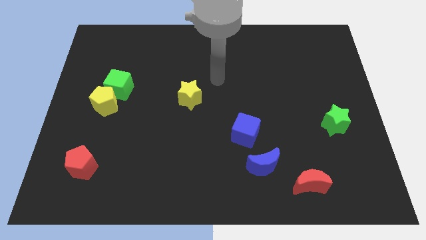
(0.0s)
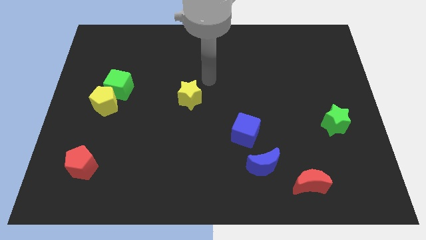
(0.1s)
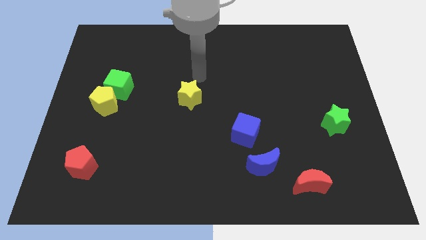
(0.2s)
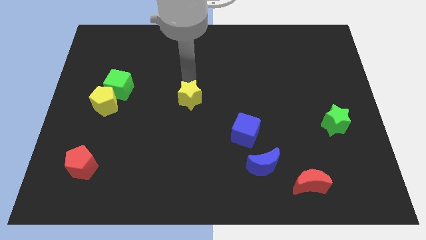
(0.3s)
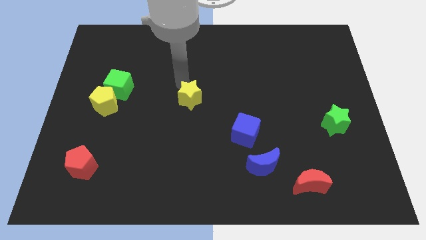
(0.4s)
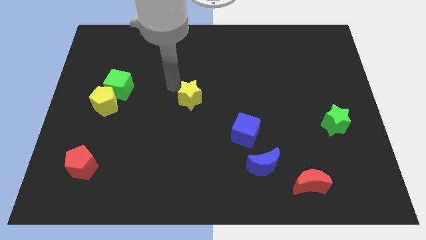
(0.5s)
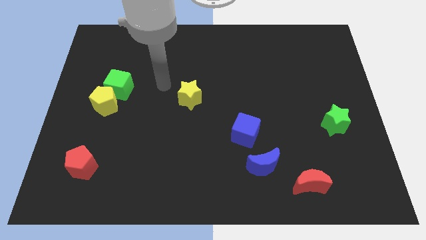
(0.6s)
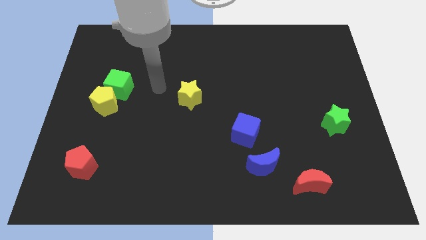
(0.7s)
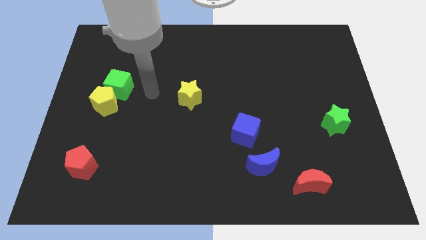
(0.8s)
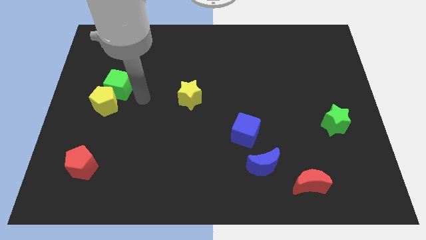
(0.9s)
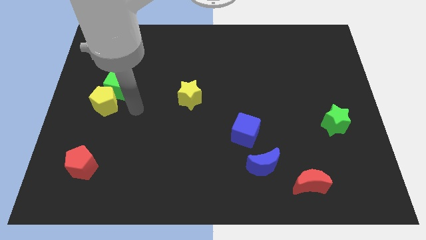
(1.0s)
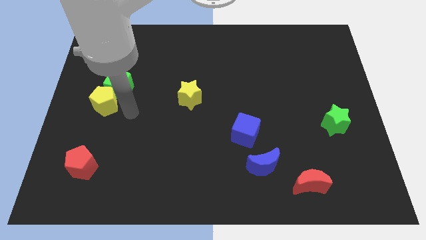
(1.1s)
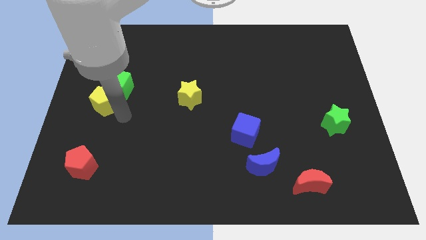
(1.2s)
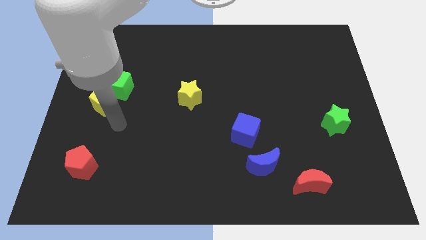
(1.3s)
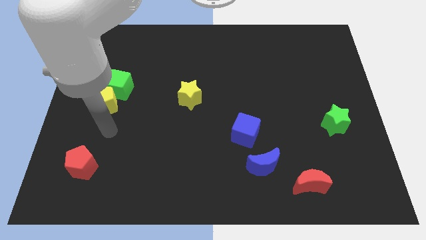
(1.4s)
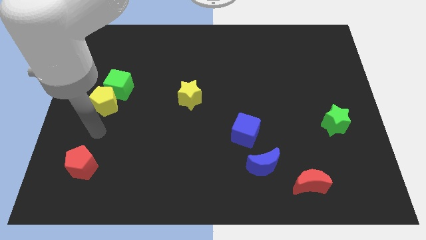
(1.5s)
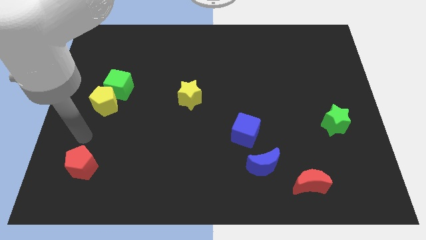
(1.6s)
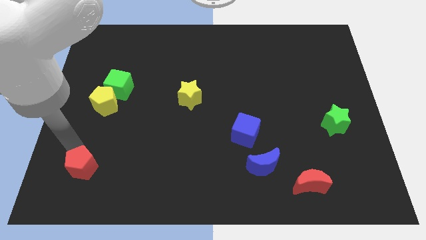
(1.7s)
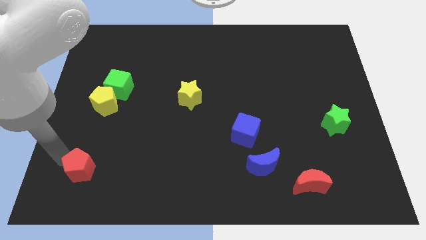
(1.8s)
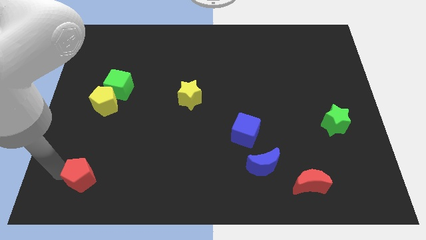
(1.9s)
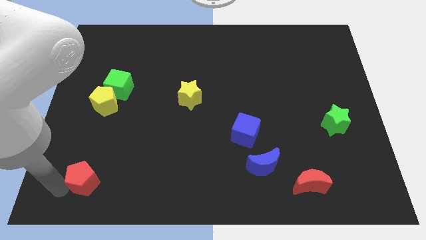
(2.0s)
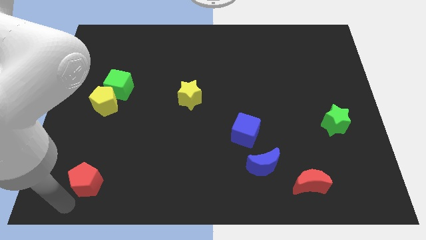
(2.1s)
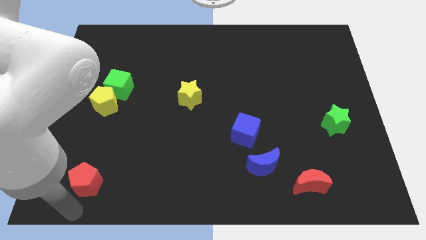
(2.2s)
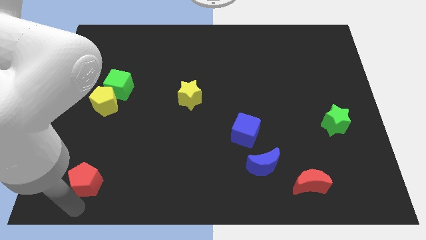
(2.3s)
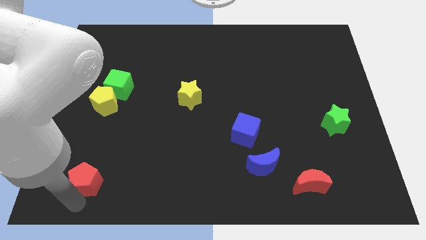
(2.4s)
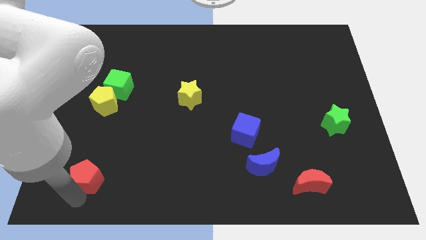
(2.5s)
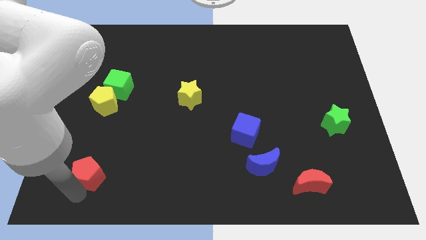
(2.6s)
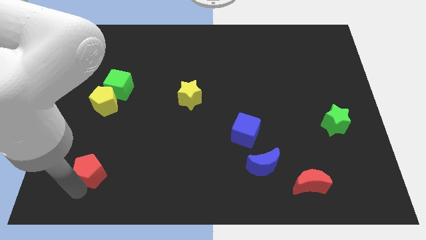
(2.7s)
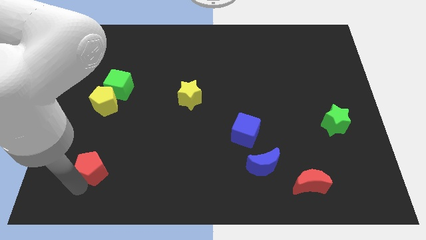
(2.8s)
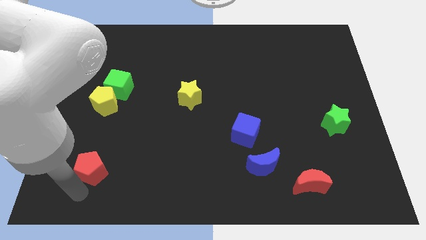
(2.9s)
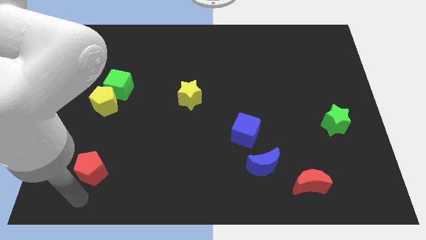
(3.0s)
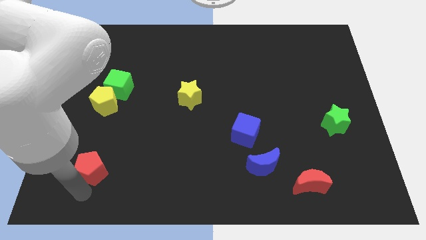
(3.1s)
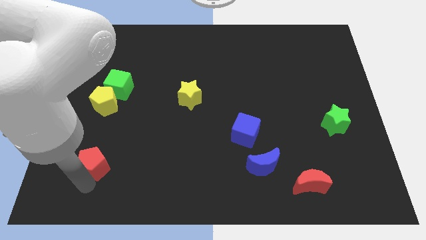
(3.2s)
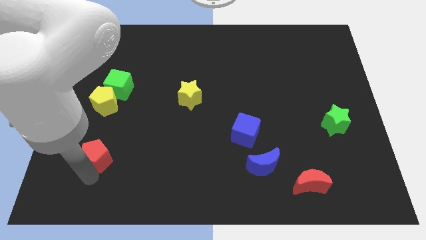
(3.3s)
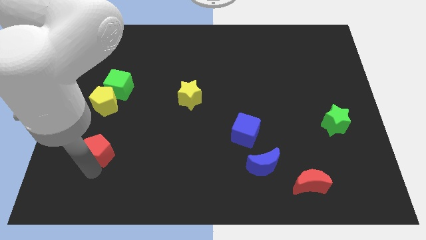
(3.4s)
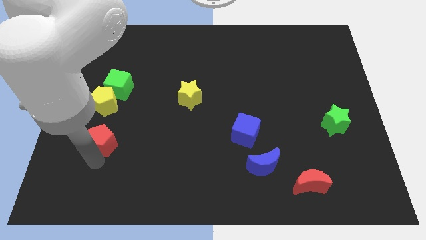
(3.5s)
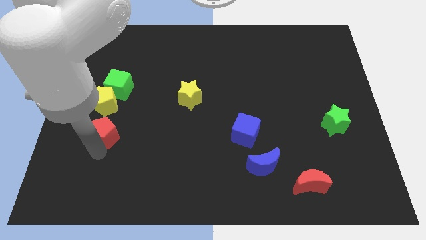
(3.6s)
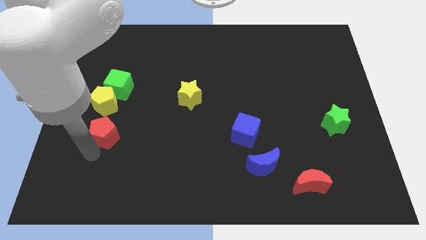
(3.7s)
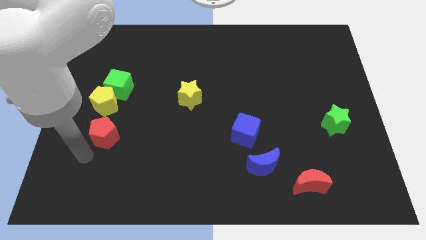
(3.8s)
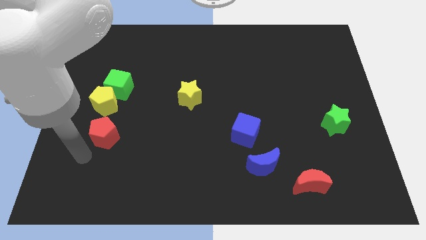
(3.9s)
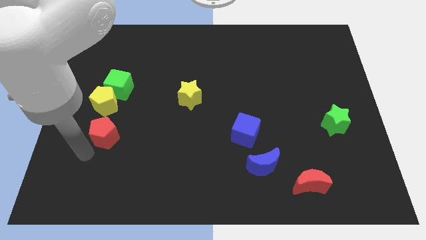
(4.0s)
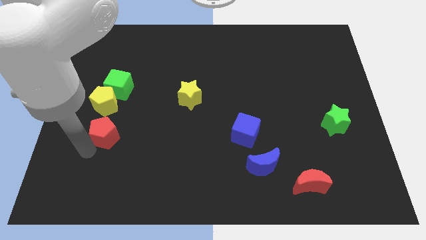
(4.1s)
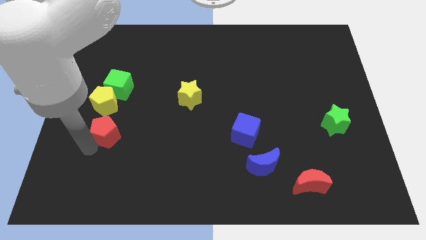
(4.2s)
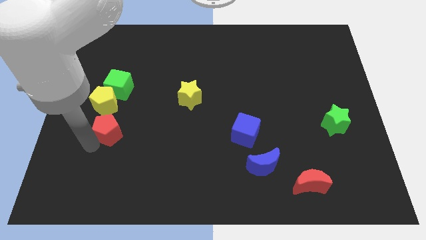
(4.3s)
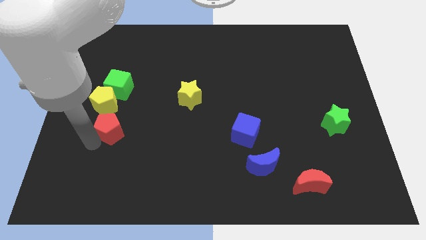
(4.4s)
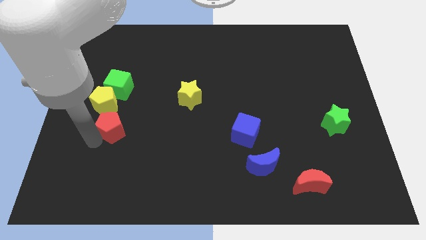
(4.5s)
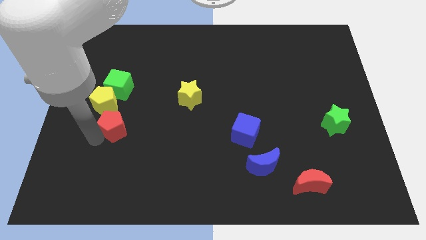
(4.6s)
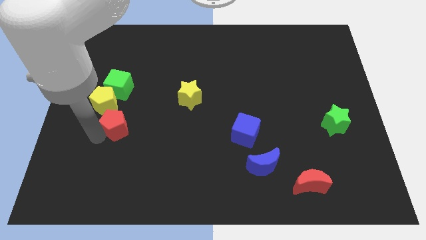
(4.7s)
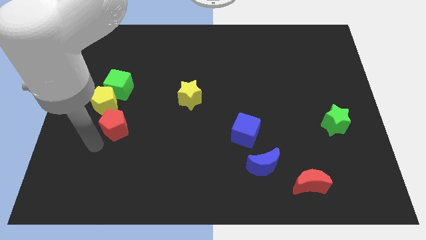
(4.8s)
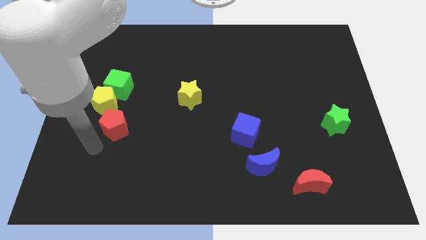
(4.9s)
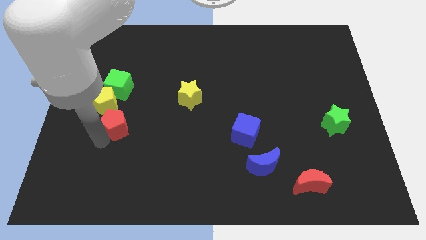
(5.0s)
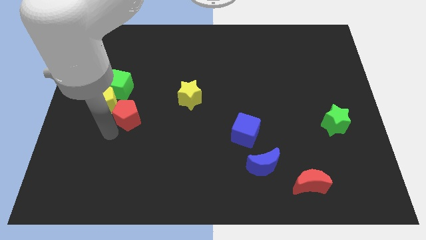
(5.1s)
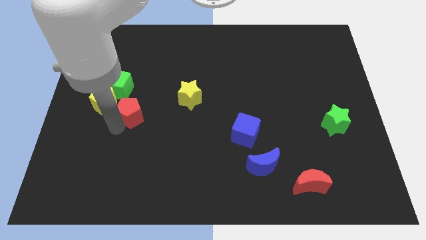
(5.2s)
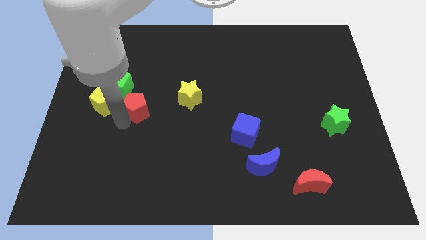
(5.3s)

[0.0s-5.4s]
push the red pentagon just left of the yellow star

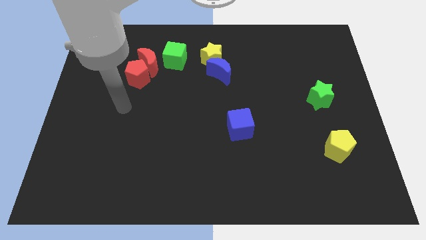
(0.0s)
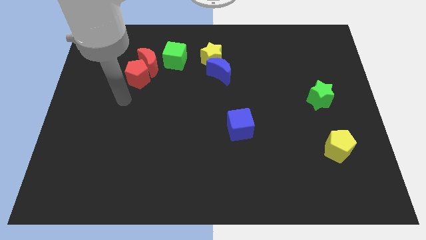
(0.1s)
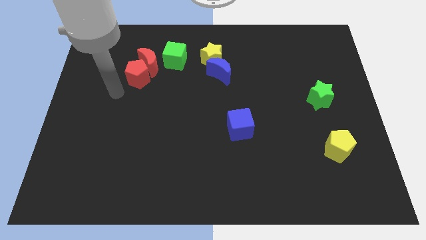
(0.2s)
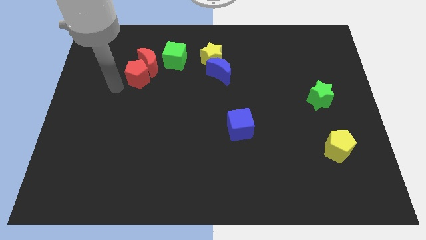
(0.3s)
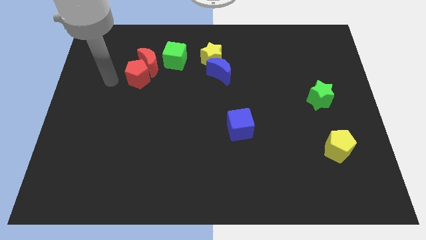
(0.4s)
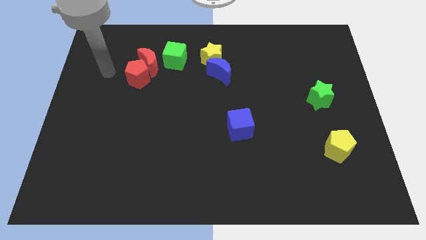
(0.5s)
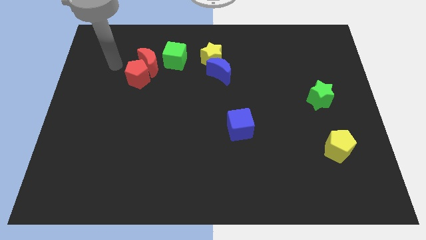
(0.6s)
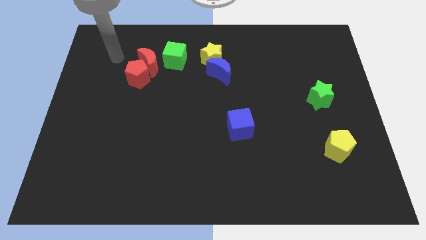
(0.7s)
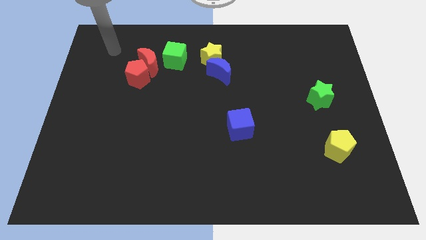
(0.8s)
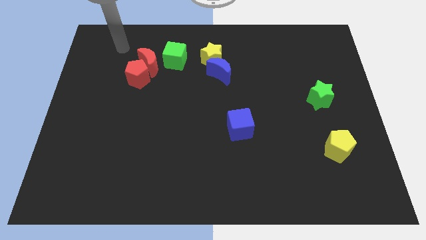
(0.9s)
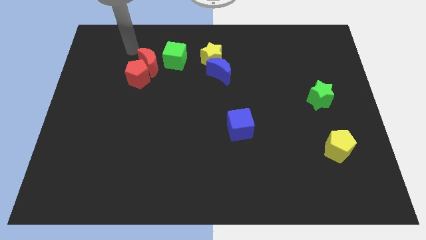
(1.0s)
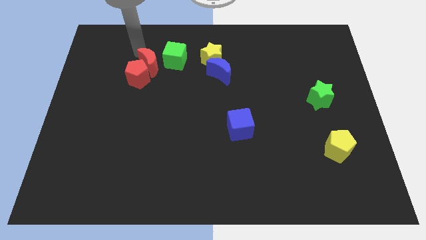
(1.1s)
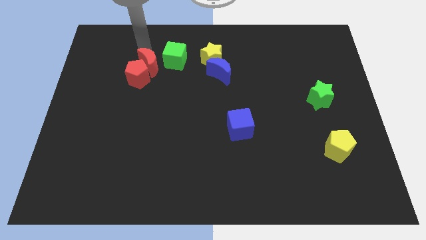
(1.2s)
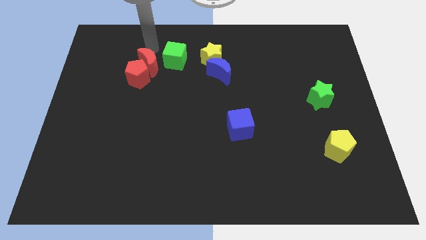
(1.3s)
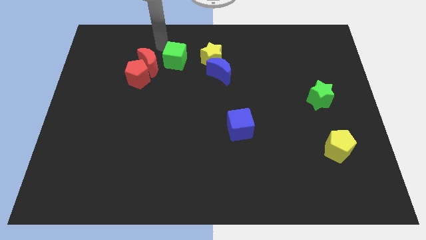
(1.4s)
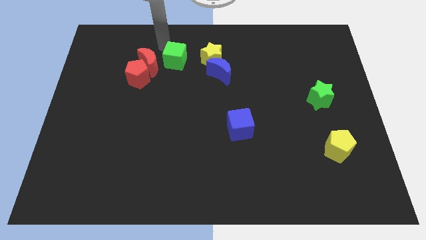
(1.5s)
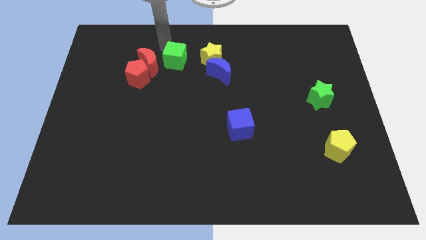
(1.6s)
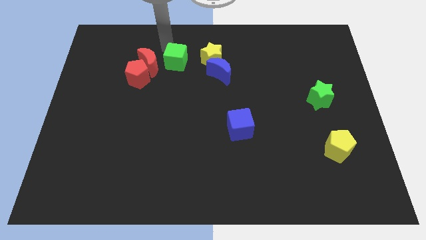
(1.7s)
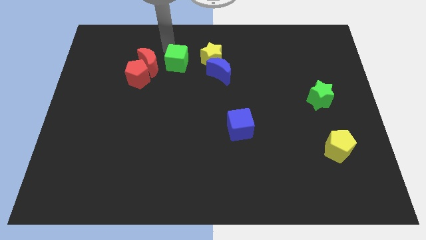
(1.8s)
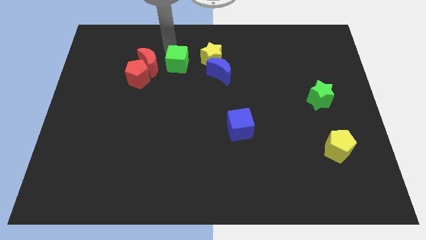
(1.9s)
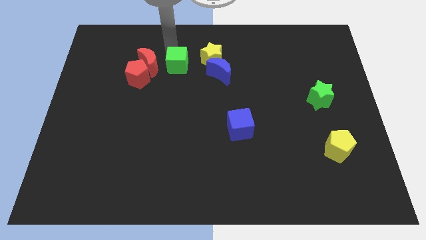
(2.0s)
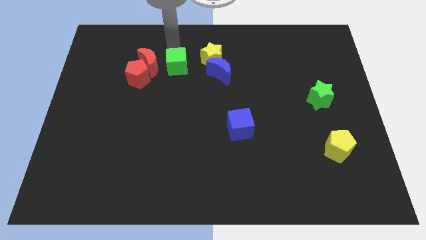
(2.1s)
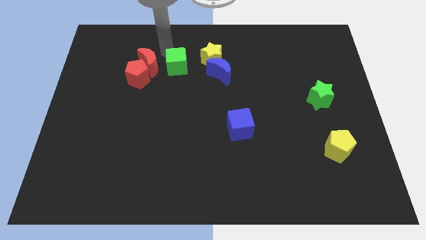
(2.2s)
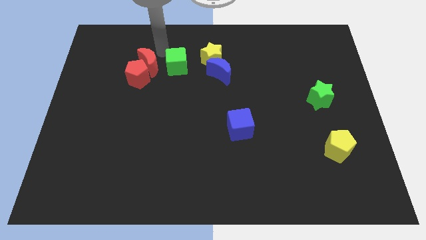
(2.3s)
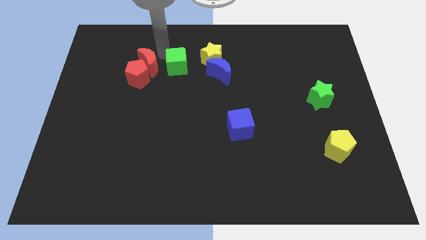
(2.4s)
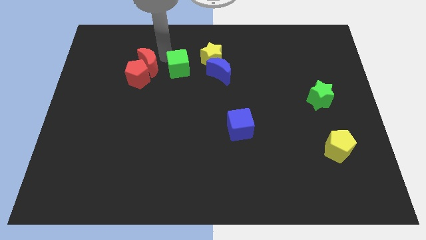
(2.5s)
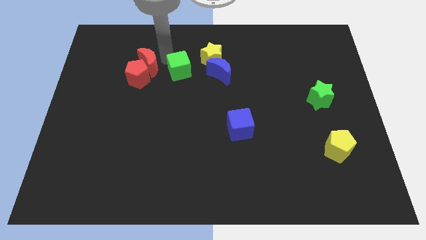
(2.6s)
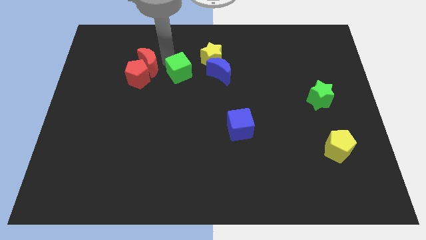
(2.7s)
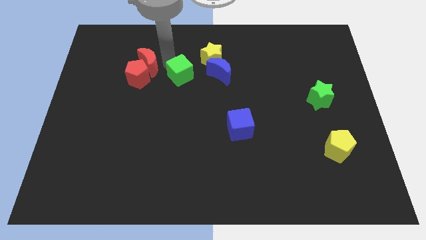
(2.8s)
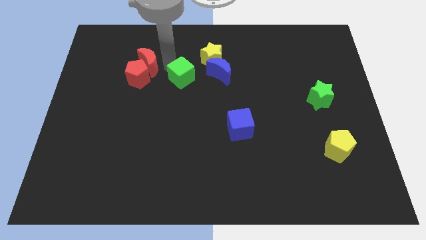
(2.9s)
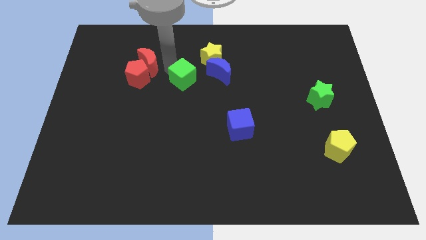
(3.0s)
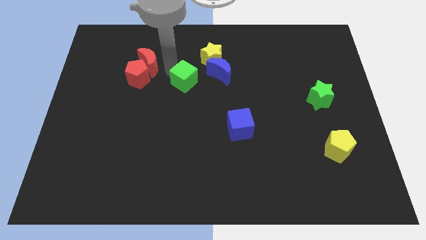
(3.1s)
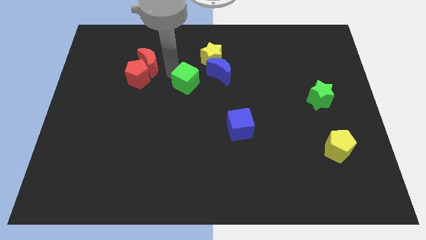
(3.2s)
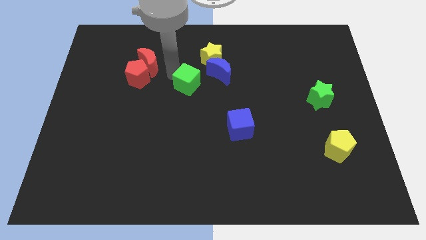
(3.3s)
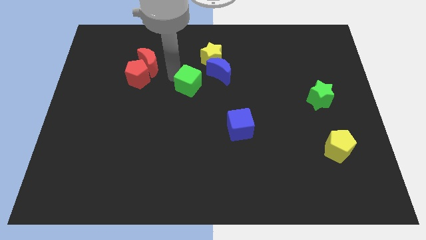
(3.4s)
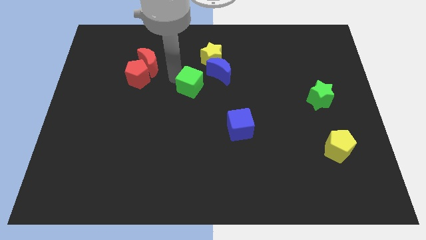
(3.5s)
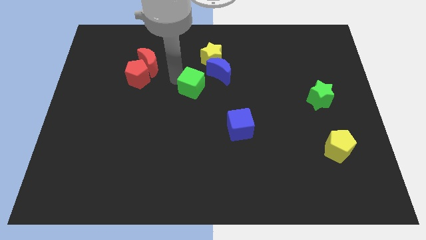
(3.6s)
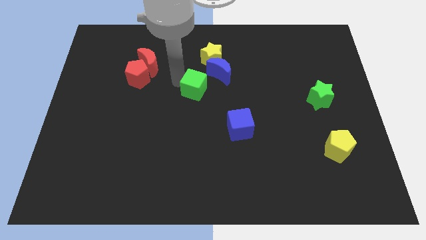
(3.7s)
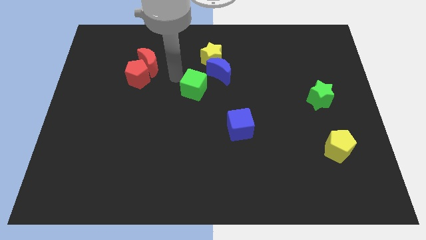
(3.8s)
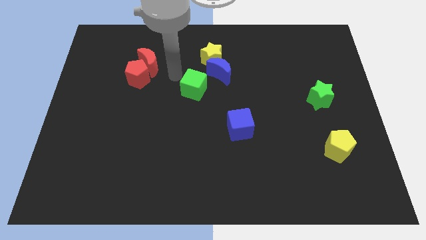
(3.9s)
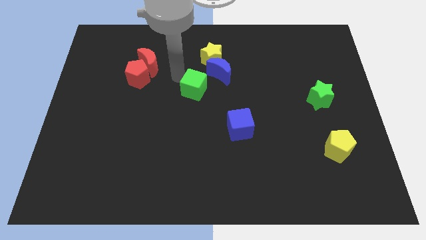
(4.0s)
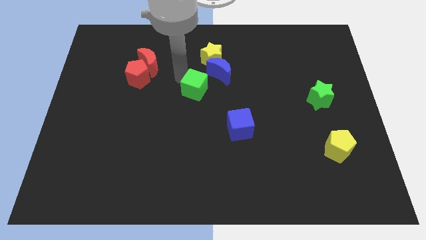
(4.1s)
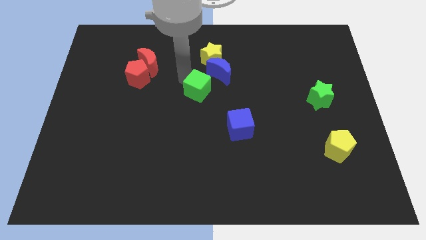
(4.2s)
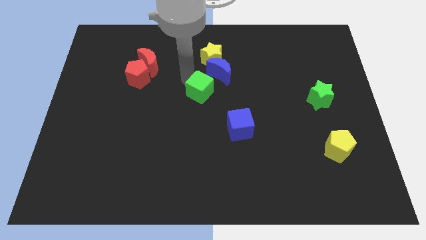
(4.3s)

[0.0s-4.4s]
slide the green cube below the blue moon
